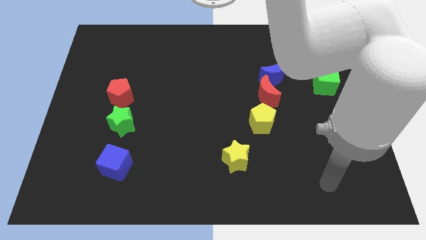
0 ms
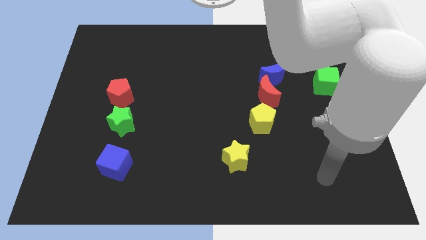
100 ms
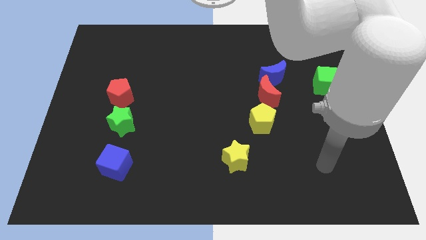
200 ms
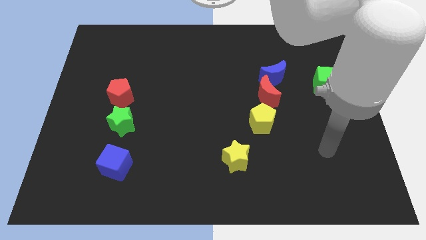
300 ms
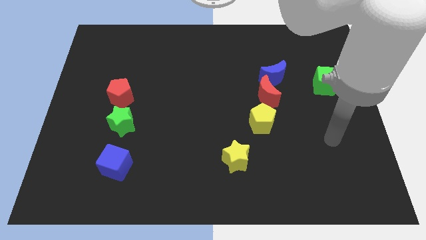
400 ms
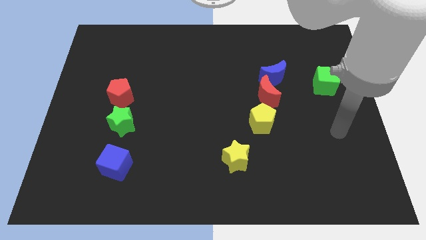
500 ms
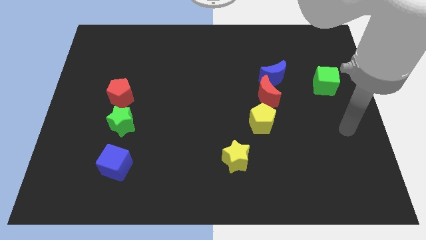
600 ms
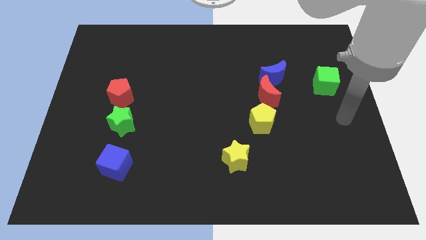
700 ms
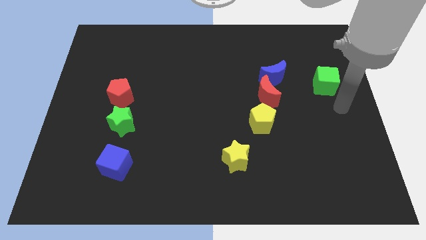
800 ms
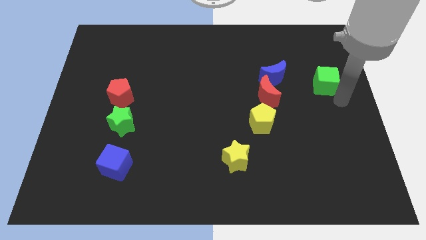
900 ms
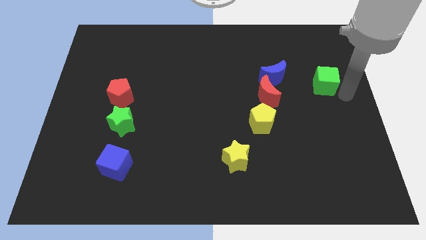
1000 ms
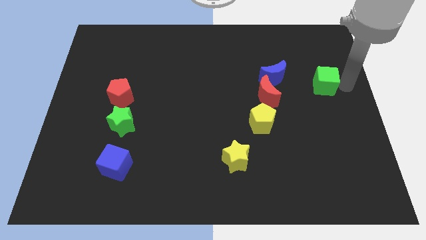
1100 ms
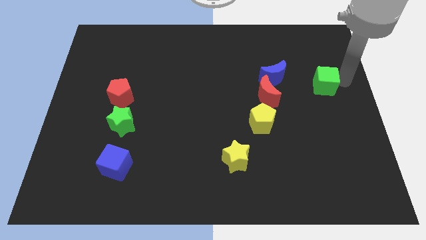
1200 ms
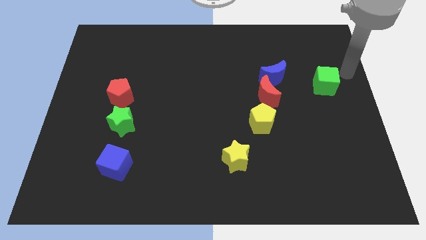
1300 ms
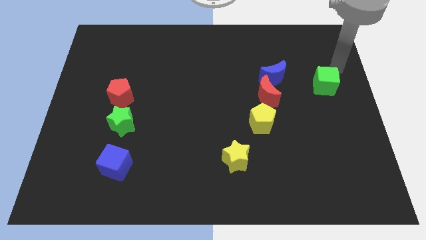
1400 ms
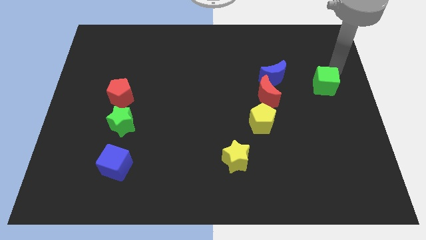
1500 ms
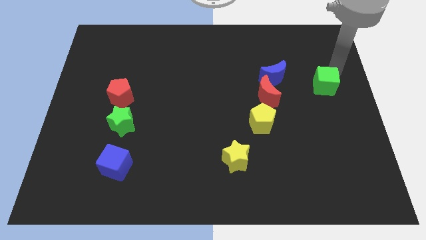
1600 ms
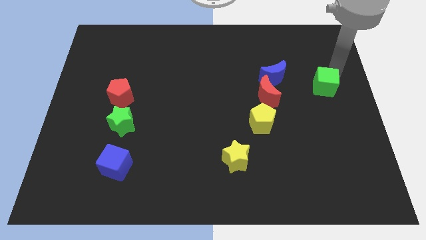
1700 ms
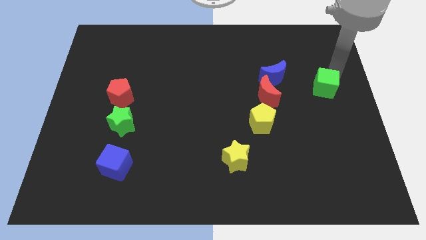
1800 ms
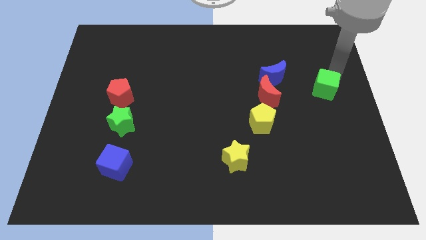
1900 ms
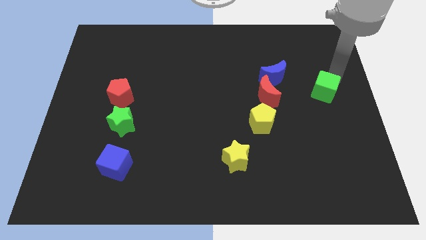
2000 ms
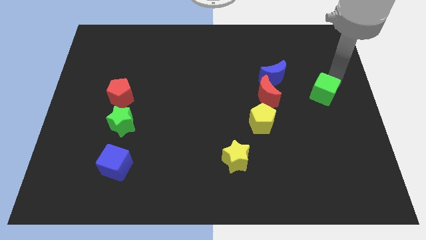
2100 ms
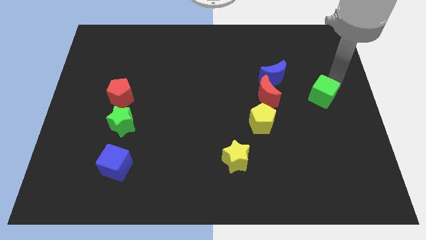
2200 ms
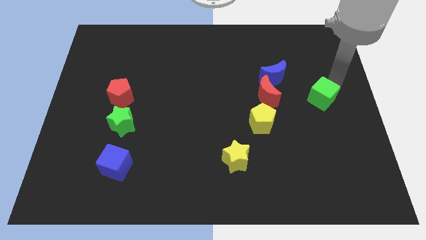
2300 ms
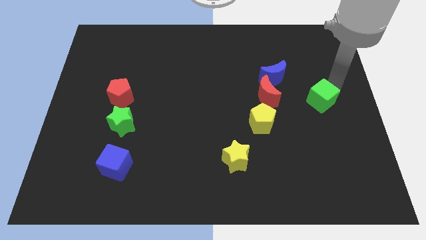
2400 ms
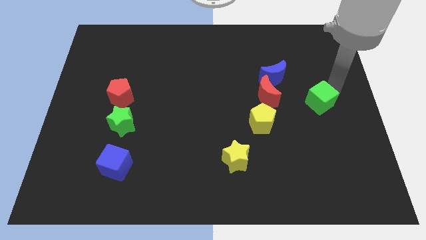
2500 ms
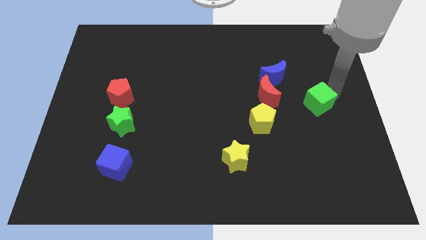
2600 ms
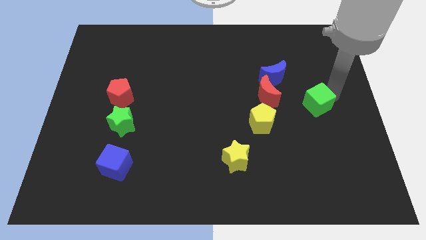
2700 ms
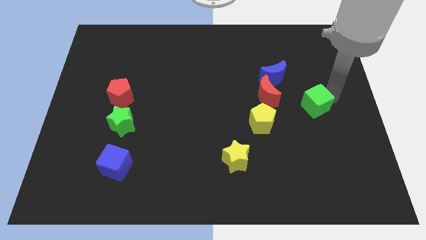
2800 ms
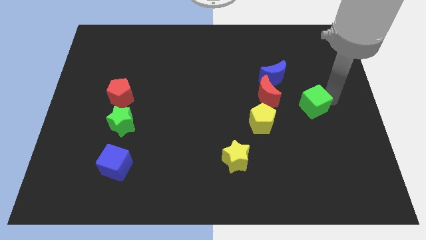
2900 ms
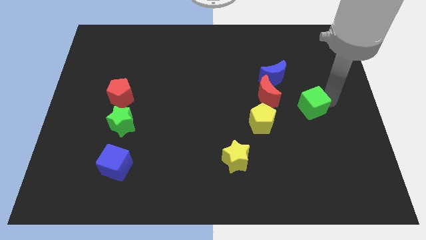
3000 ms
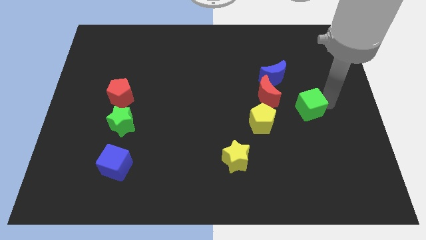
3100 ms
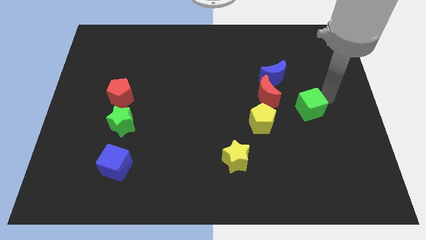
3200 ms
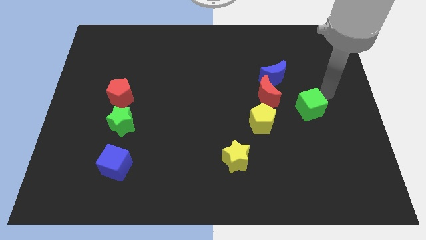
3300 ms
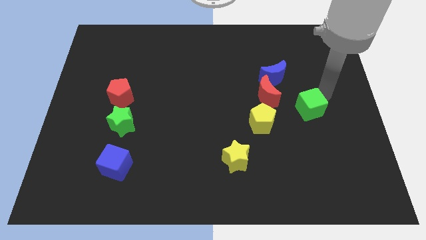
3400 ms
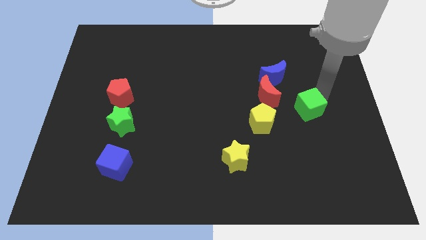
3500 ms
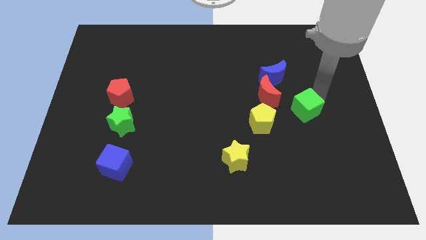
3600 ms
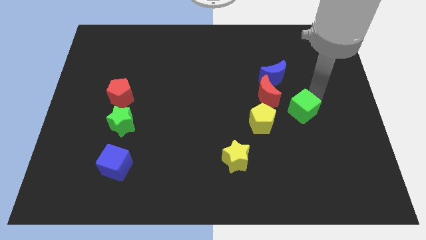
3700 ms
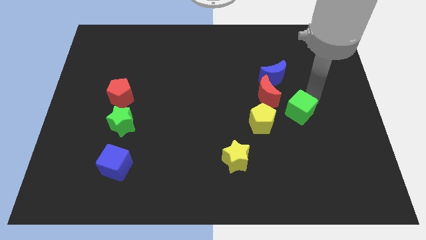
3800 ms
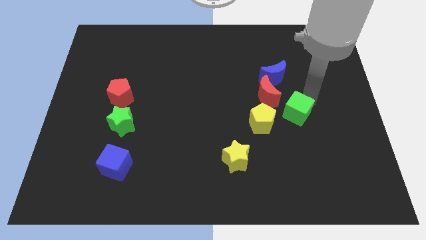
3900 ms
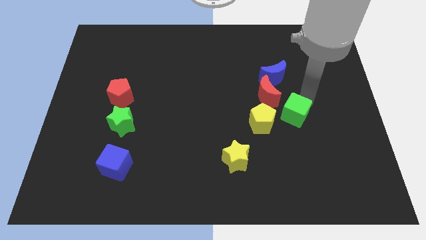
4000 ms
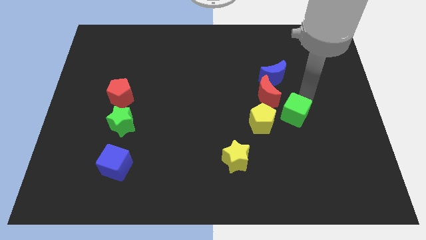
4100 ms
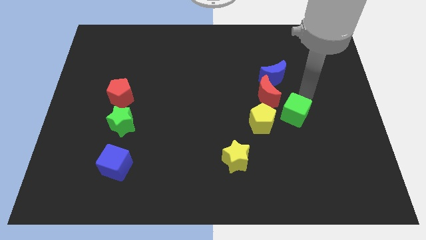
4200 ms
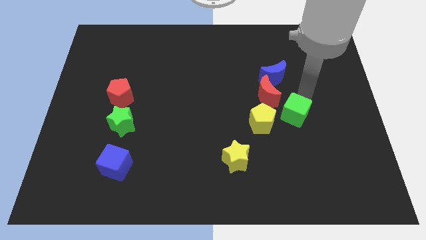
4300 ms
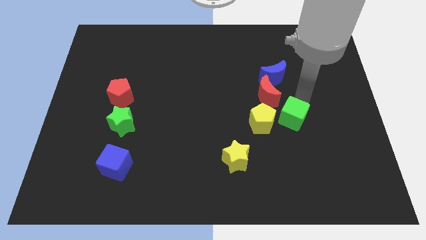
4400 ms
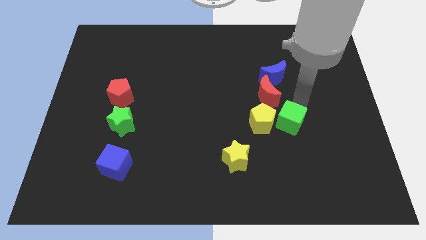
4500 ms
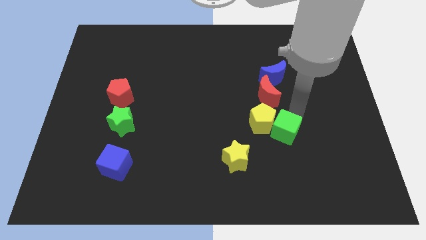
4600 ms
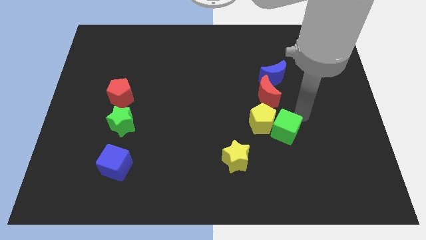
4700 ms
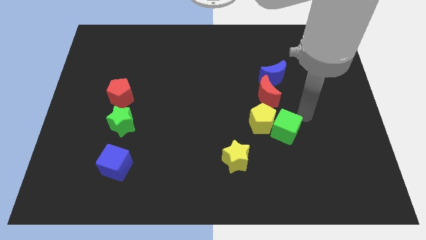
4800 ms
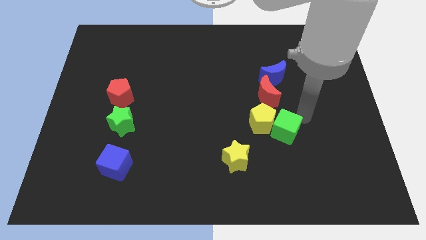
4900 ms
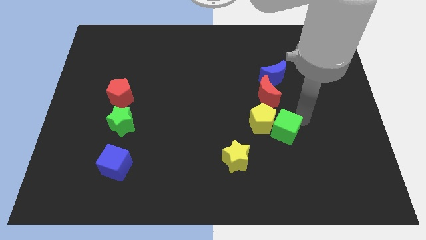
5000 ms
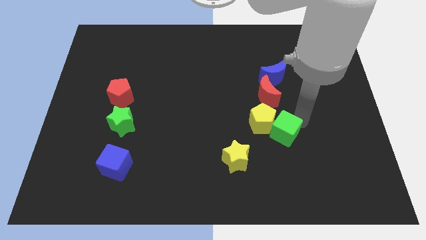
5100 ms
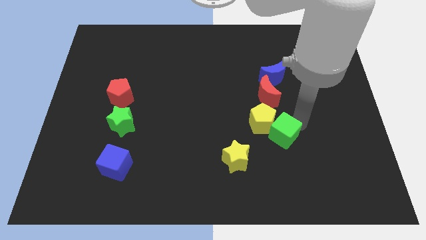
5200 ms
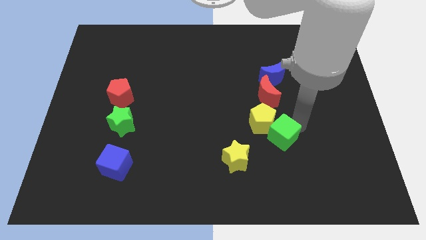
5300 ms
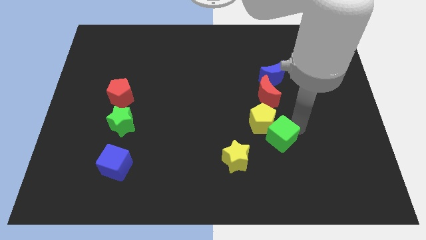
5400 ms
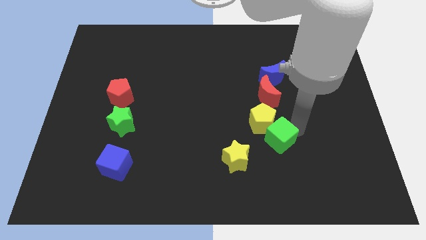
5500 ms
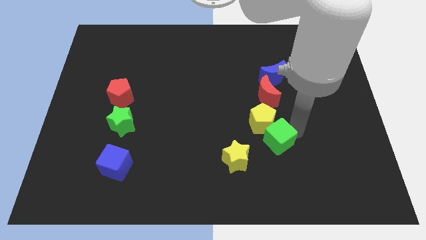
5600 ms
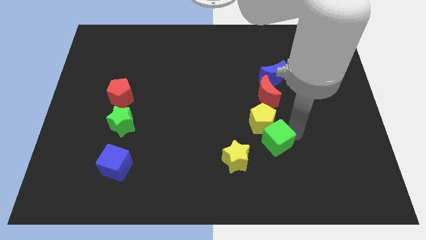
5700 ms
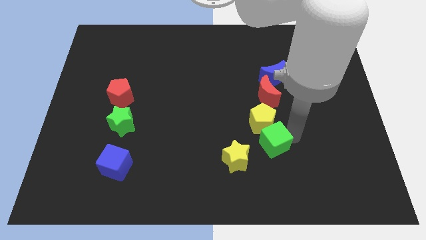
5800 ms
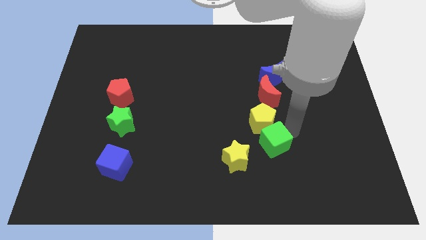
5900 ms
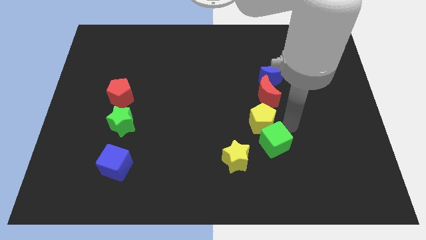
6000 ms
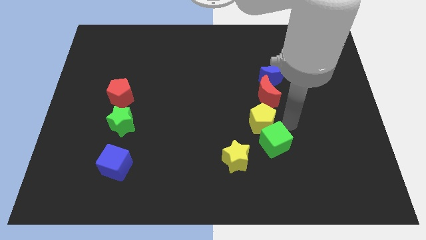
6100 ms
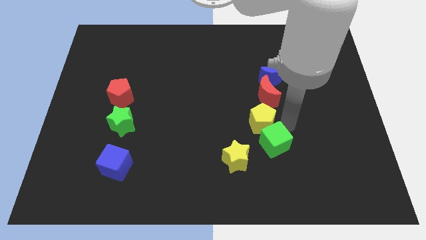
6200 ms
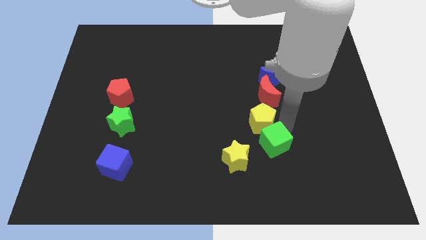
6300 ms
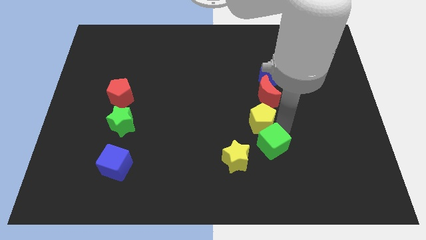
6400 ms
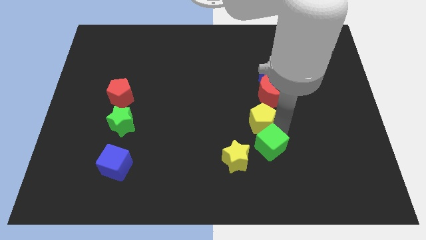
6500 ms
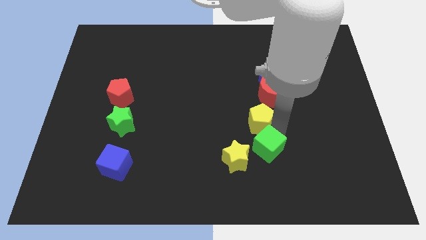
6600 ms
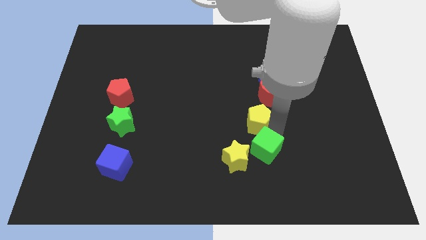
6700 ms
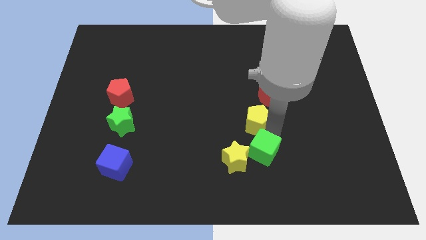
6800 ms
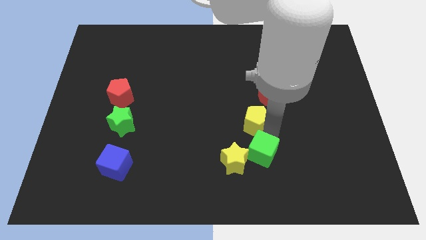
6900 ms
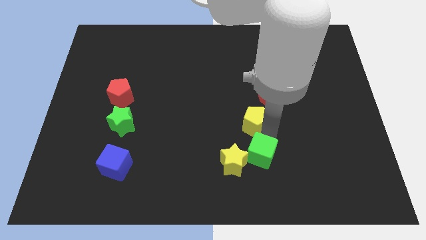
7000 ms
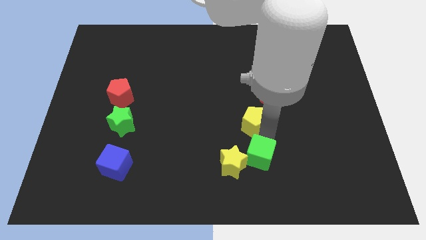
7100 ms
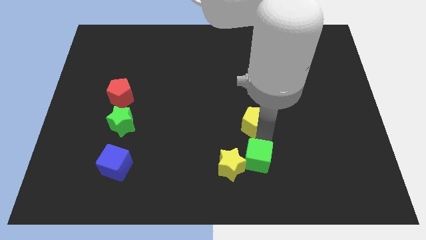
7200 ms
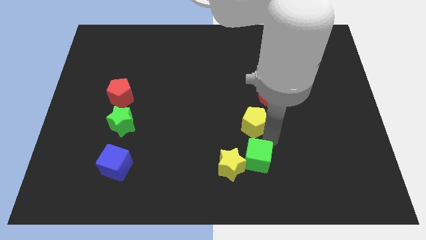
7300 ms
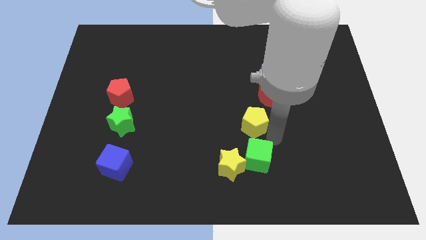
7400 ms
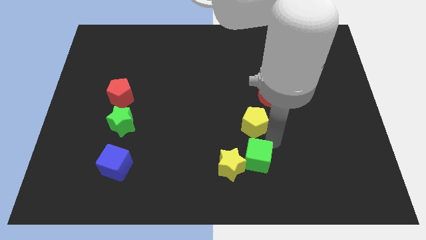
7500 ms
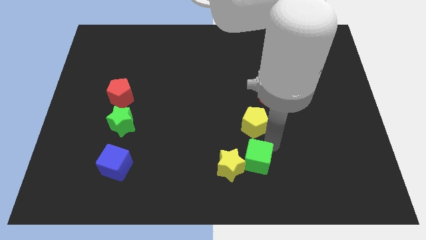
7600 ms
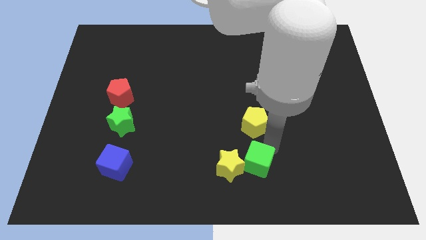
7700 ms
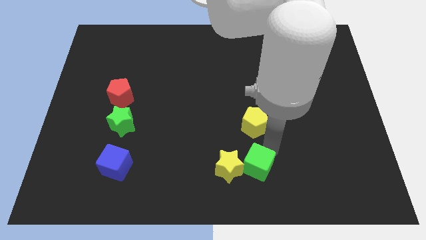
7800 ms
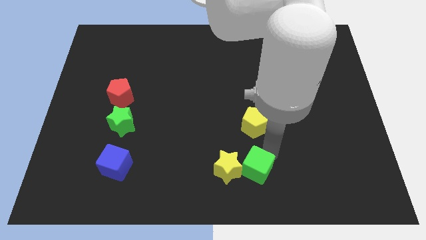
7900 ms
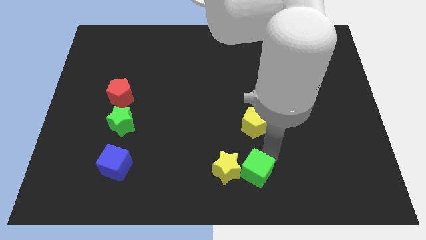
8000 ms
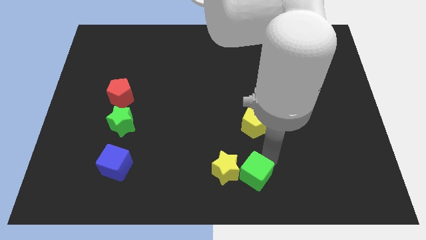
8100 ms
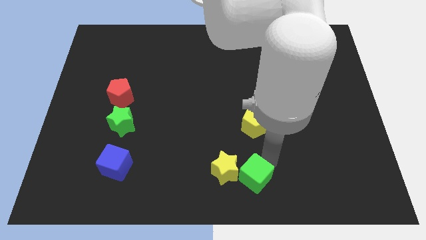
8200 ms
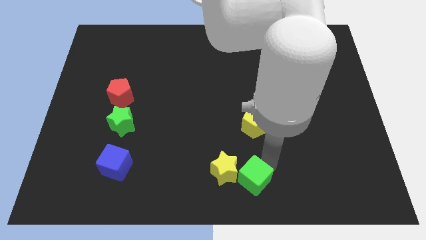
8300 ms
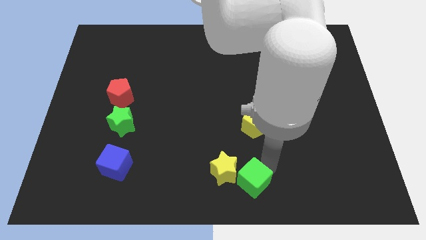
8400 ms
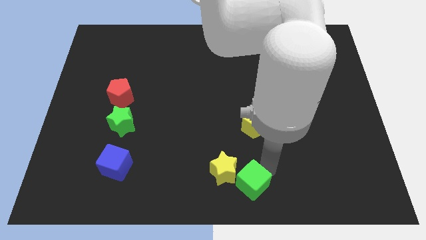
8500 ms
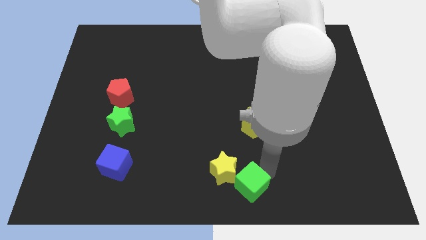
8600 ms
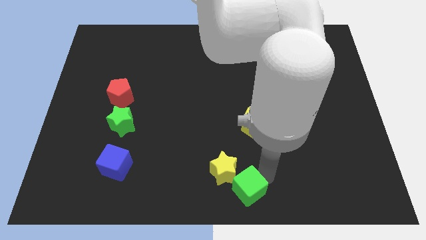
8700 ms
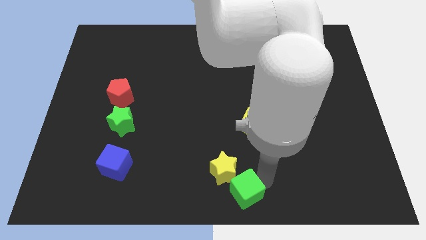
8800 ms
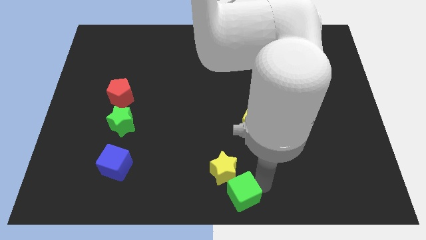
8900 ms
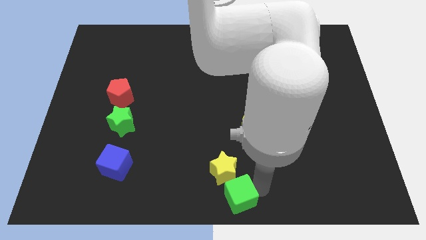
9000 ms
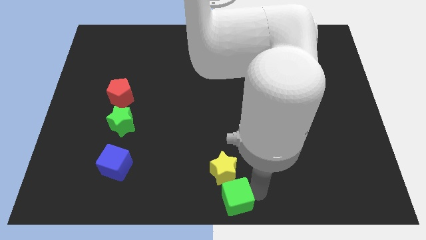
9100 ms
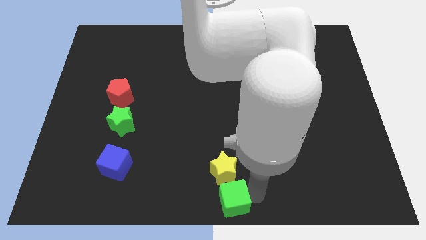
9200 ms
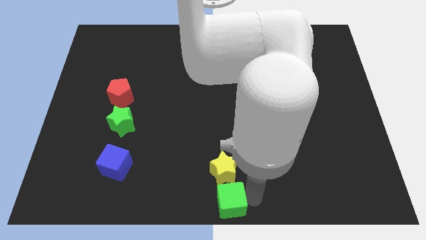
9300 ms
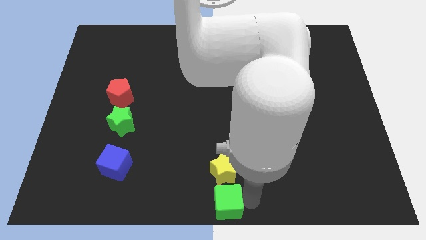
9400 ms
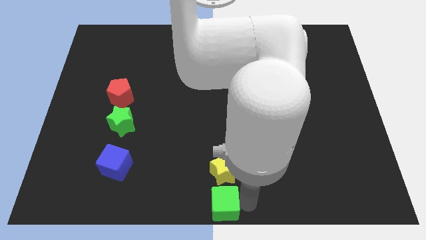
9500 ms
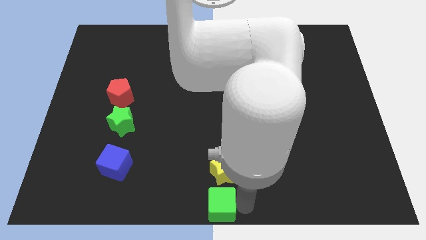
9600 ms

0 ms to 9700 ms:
push the green cube diagonally down and to the left of the yellow star
